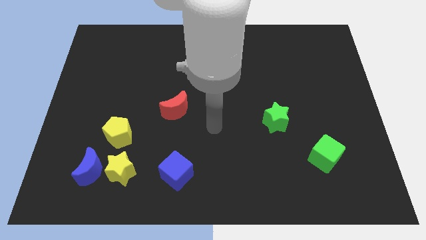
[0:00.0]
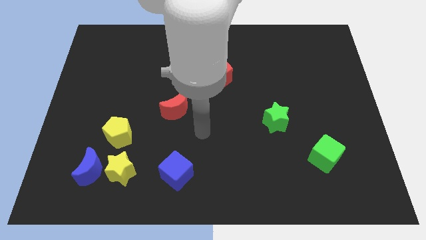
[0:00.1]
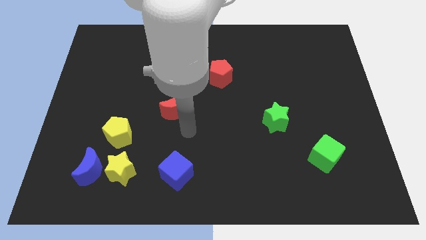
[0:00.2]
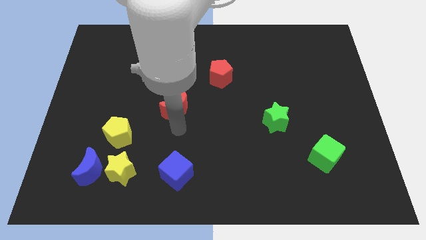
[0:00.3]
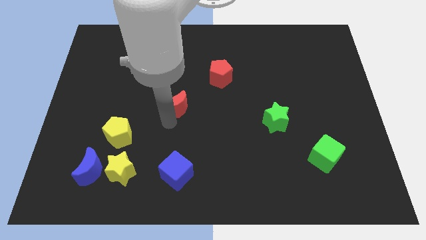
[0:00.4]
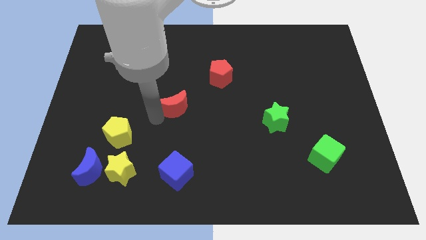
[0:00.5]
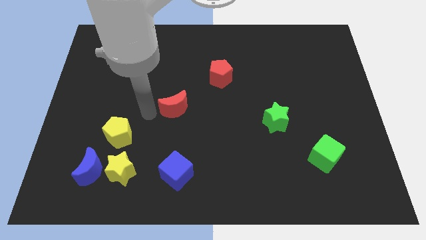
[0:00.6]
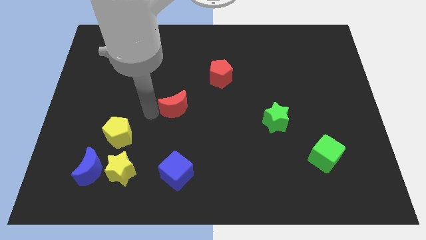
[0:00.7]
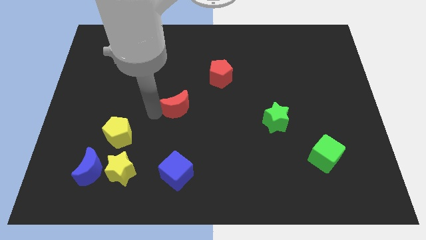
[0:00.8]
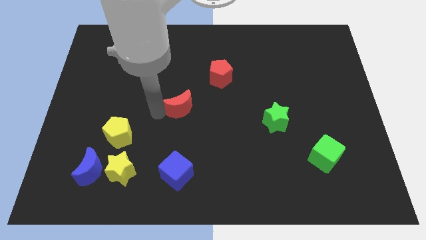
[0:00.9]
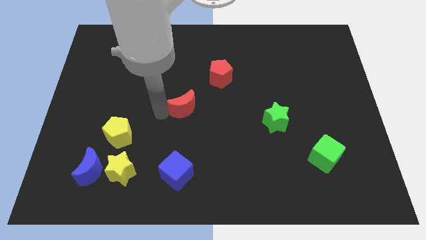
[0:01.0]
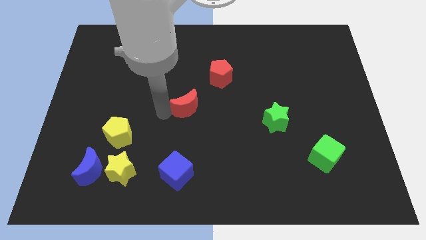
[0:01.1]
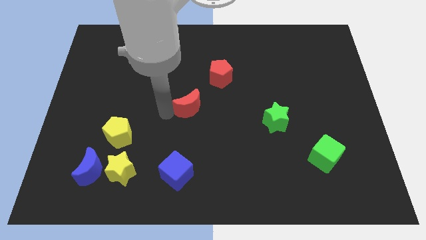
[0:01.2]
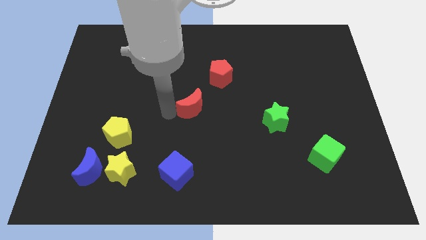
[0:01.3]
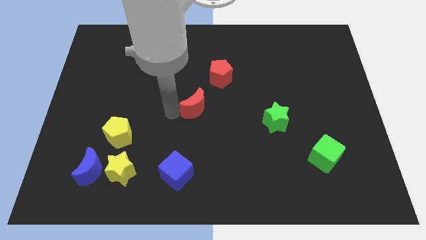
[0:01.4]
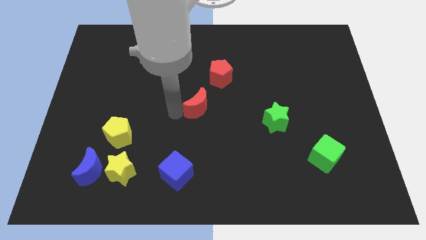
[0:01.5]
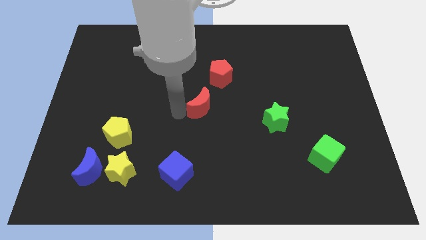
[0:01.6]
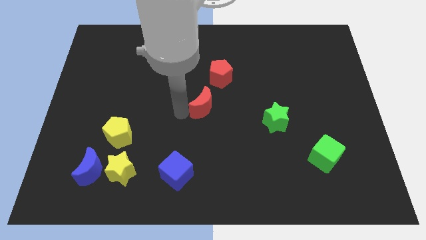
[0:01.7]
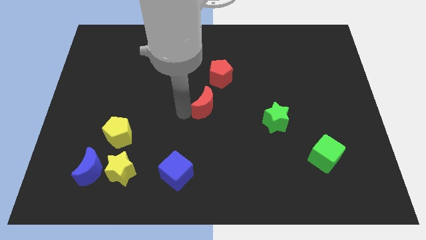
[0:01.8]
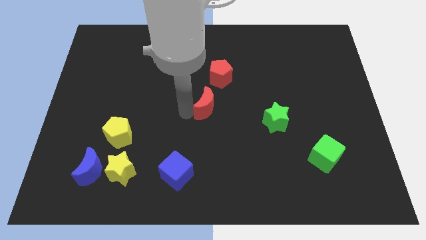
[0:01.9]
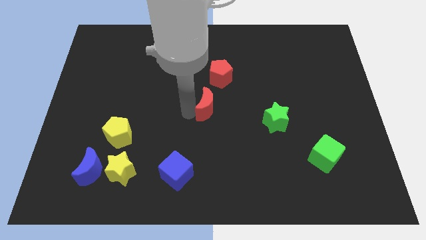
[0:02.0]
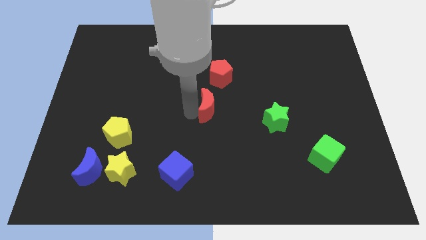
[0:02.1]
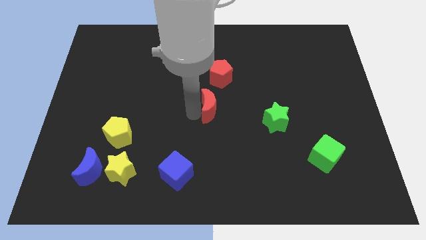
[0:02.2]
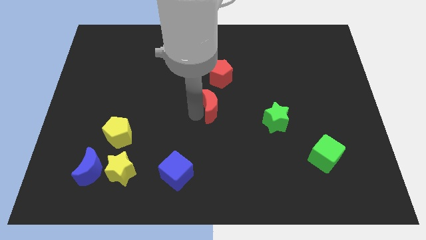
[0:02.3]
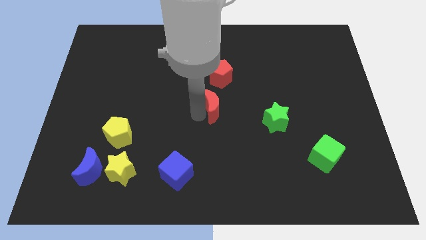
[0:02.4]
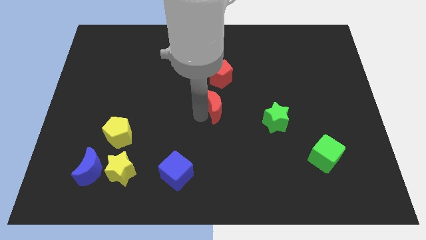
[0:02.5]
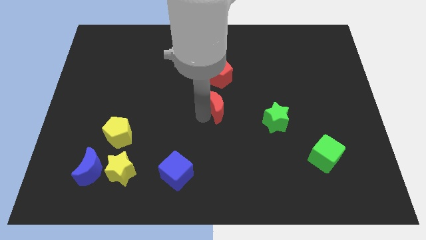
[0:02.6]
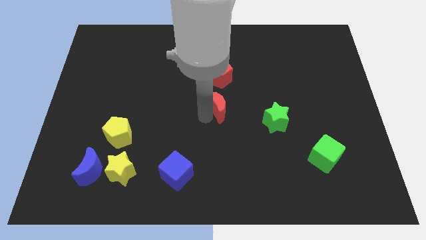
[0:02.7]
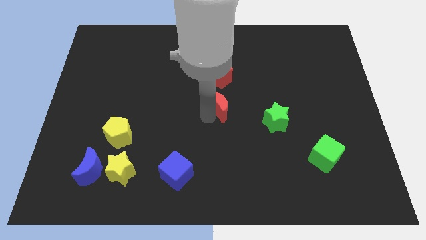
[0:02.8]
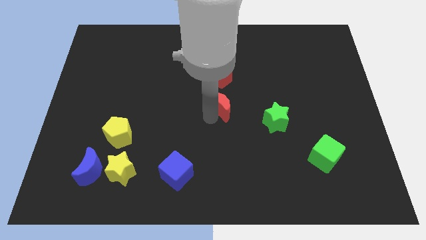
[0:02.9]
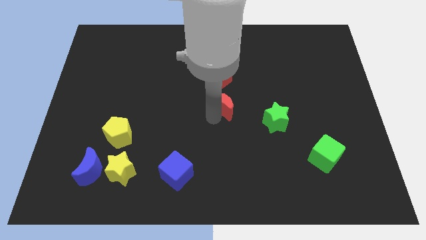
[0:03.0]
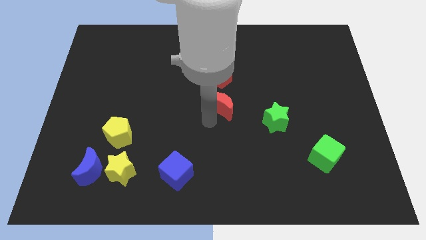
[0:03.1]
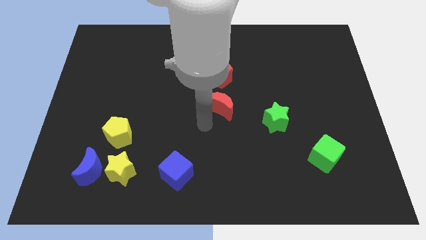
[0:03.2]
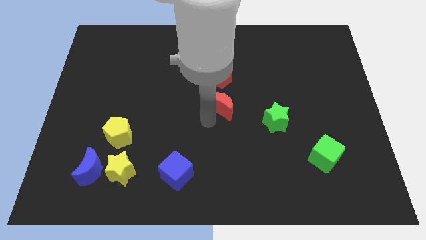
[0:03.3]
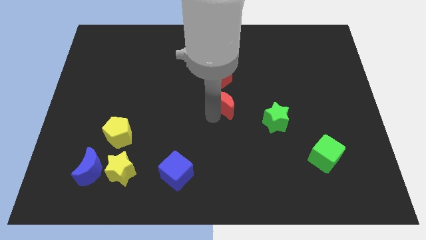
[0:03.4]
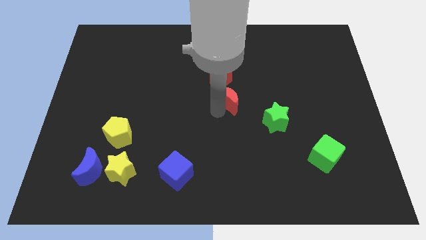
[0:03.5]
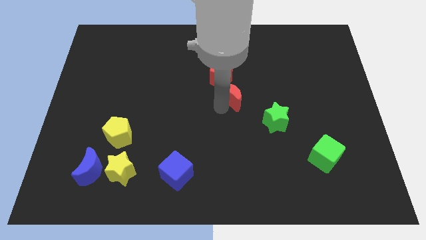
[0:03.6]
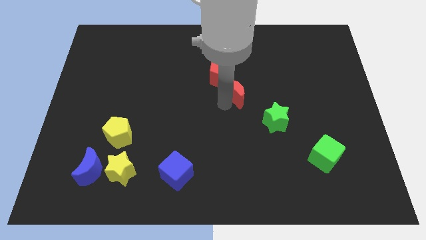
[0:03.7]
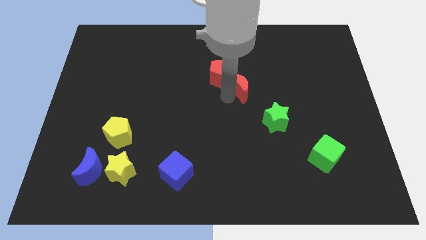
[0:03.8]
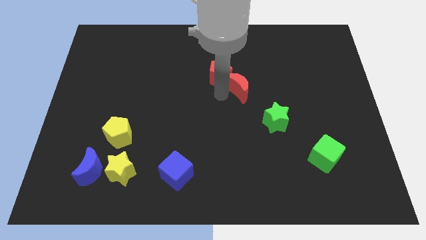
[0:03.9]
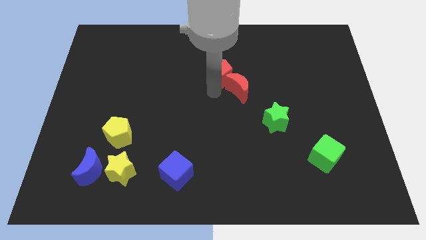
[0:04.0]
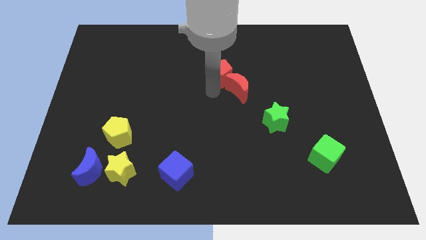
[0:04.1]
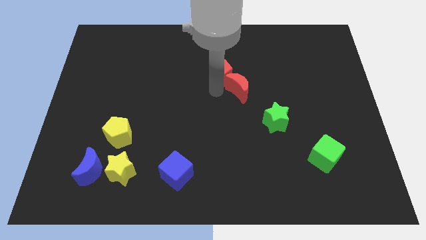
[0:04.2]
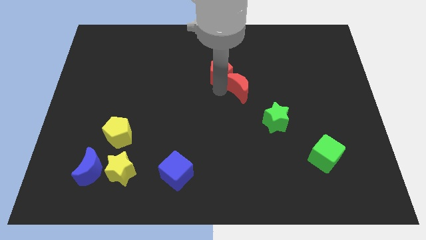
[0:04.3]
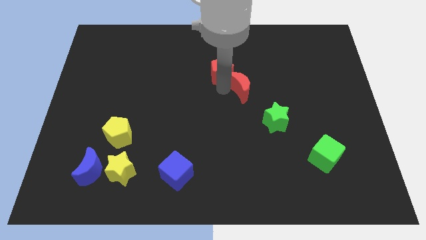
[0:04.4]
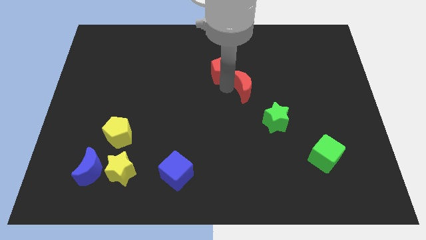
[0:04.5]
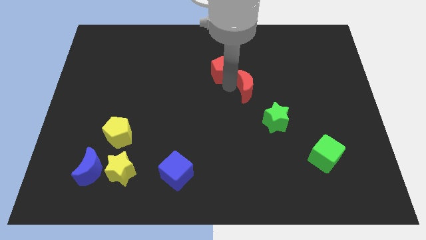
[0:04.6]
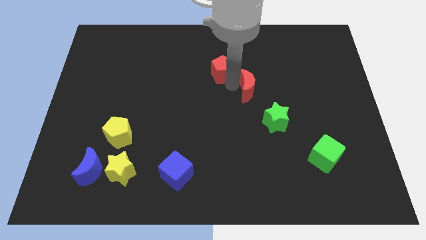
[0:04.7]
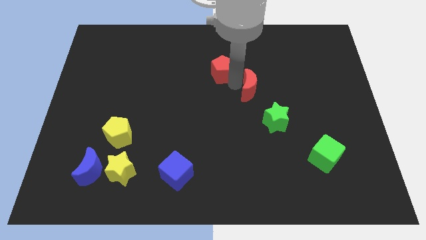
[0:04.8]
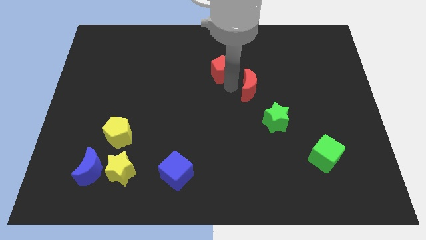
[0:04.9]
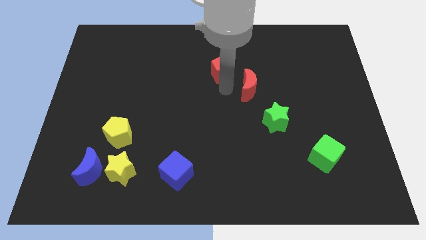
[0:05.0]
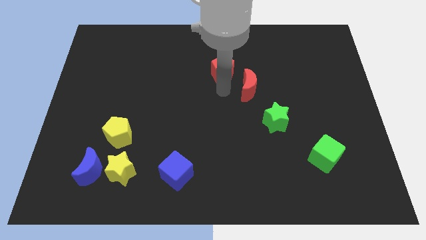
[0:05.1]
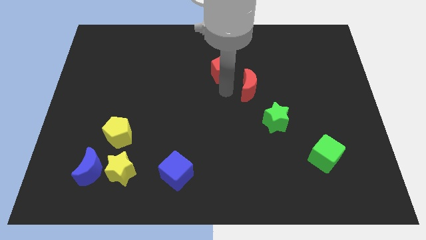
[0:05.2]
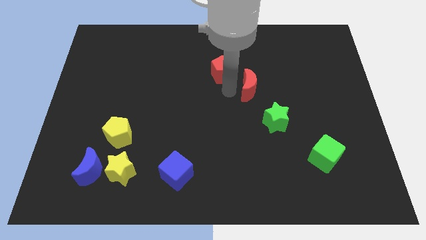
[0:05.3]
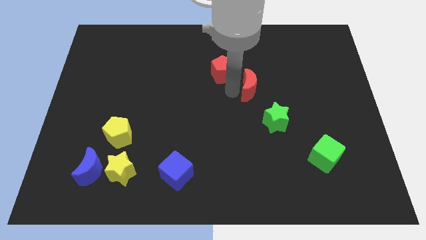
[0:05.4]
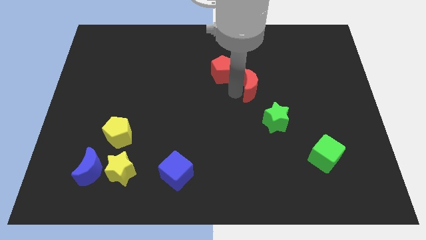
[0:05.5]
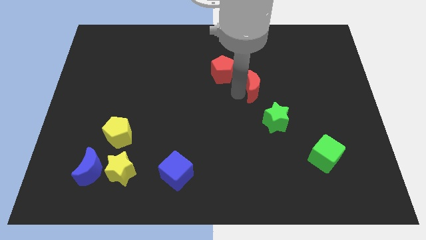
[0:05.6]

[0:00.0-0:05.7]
move the red moon to the top of the green star
